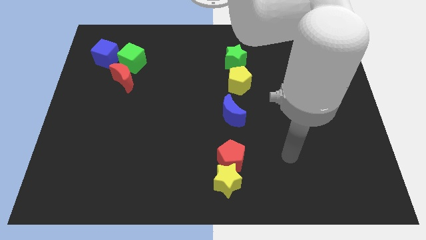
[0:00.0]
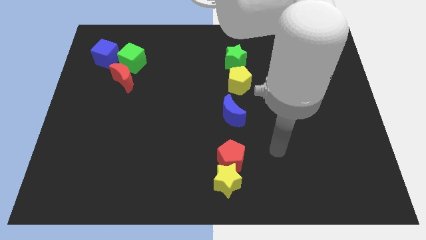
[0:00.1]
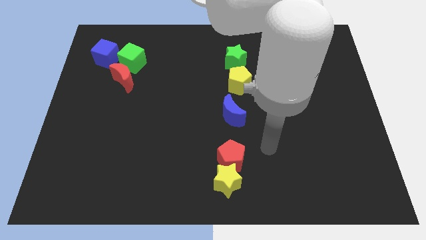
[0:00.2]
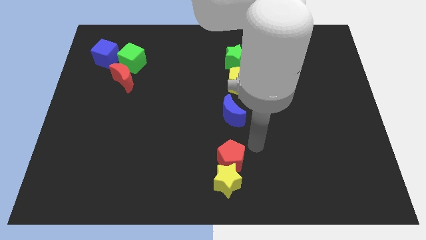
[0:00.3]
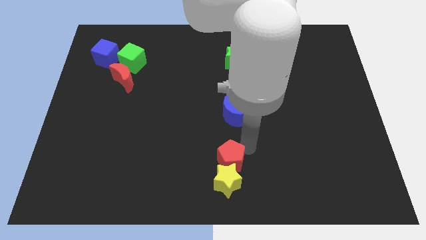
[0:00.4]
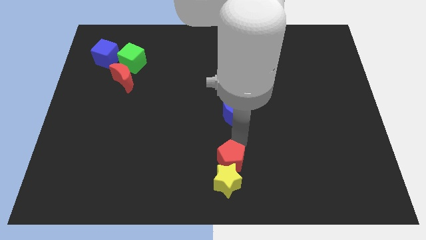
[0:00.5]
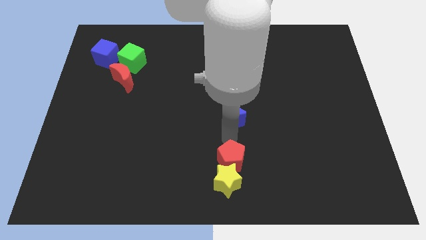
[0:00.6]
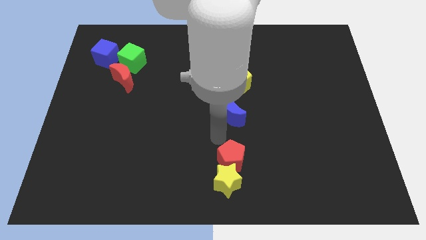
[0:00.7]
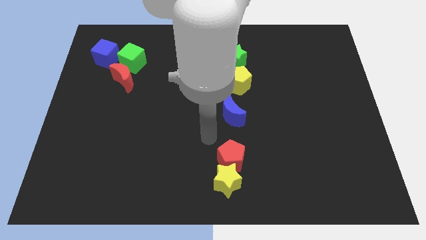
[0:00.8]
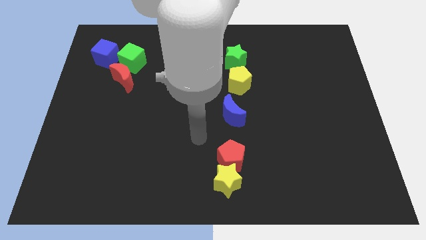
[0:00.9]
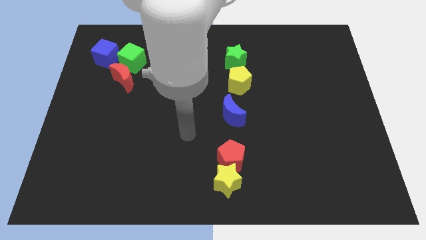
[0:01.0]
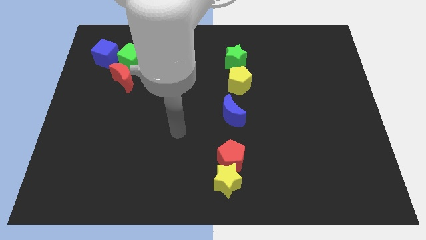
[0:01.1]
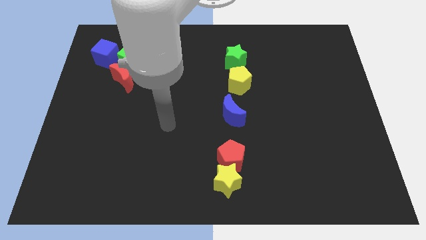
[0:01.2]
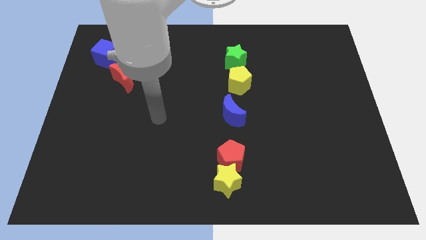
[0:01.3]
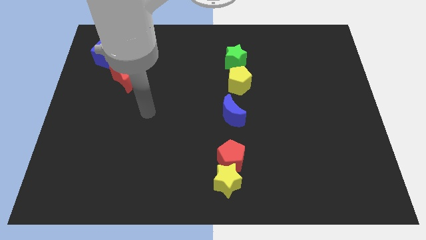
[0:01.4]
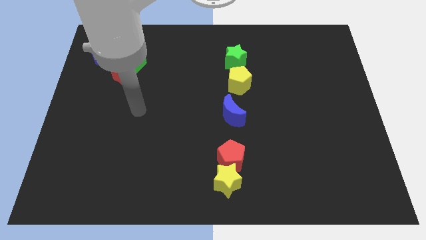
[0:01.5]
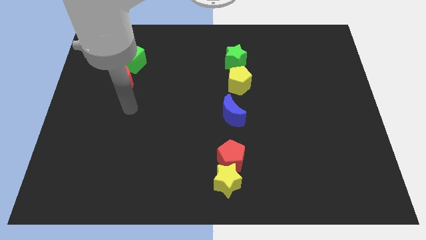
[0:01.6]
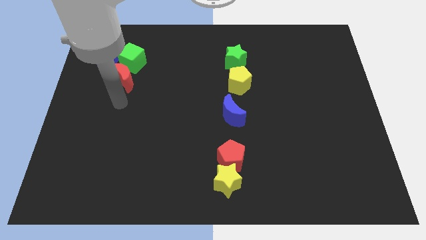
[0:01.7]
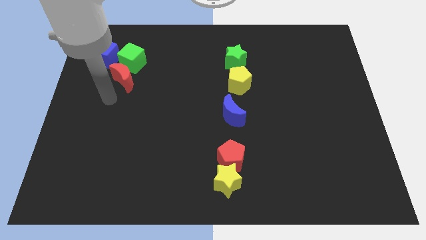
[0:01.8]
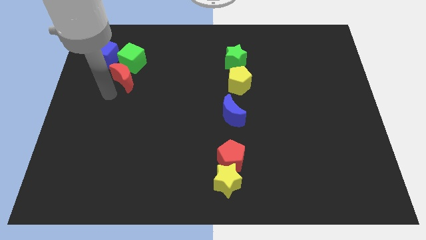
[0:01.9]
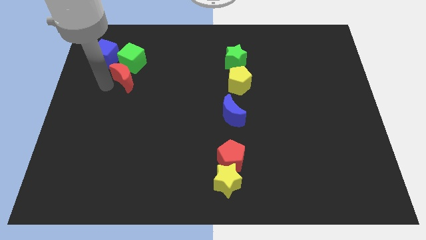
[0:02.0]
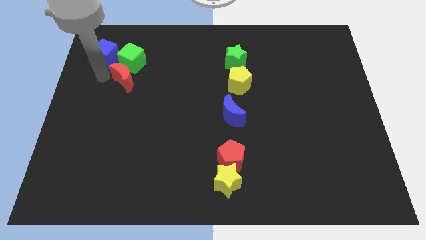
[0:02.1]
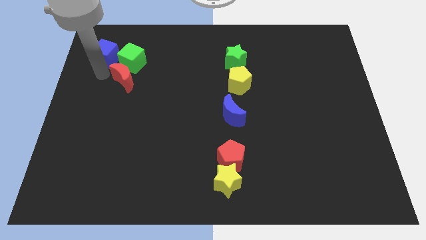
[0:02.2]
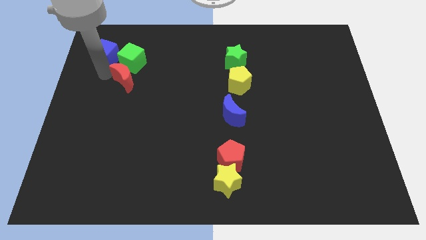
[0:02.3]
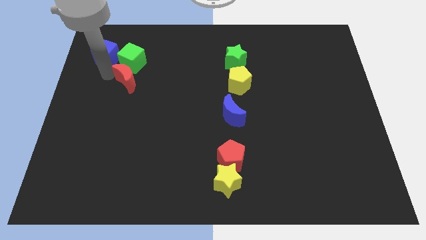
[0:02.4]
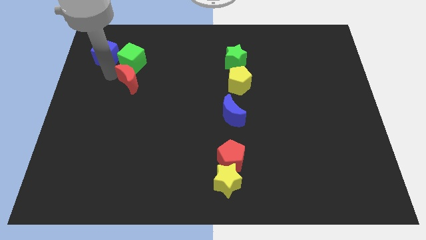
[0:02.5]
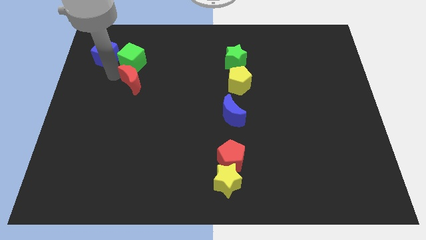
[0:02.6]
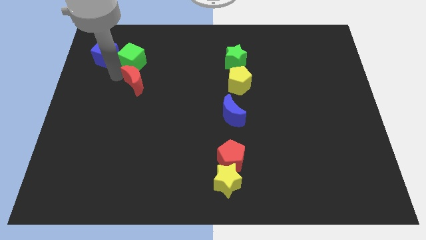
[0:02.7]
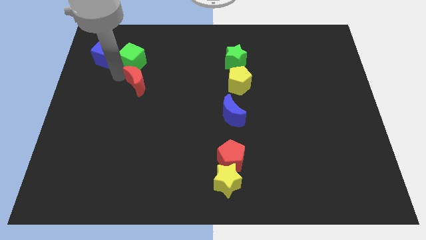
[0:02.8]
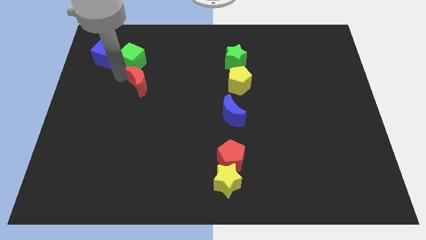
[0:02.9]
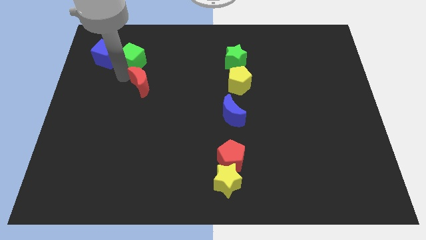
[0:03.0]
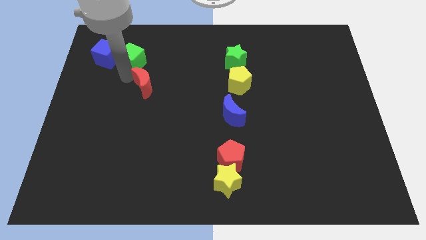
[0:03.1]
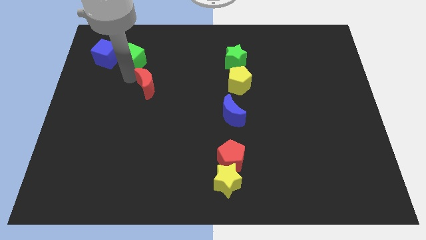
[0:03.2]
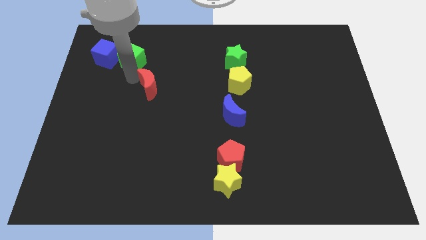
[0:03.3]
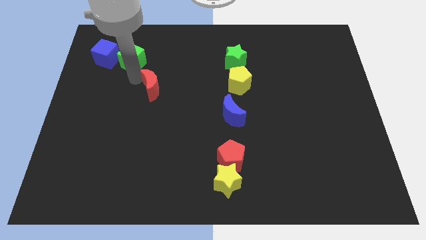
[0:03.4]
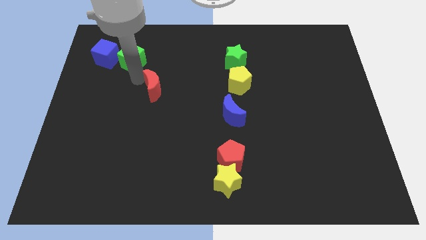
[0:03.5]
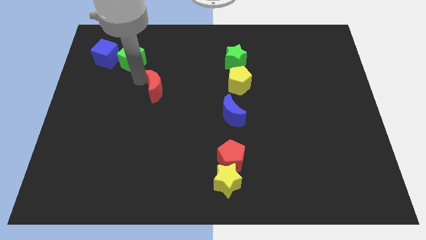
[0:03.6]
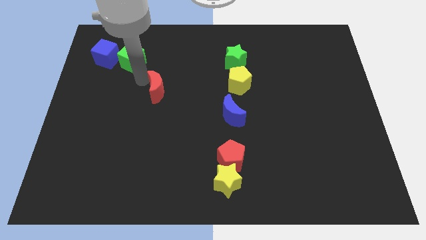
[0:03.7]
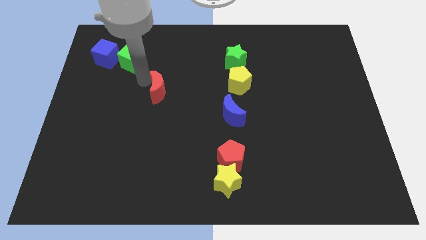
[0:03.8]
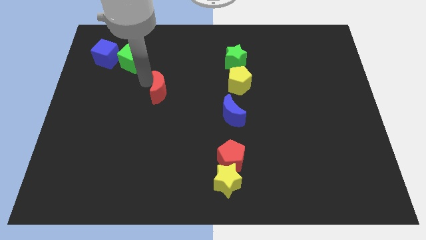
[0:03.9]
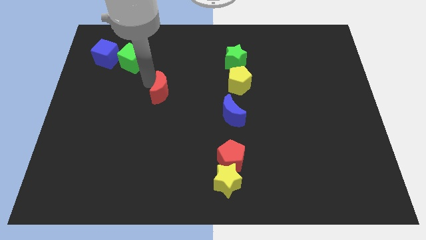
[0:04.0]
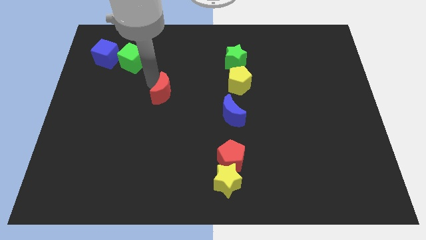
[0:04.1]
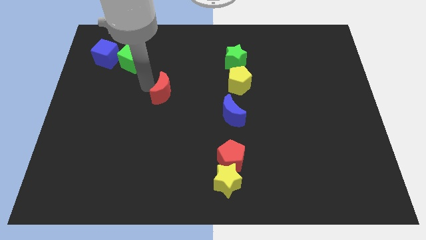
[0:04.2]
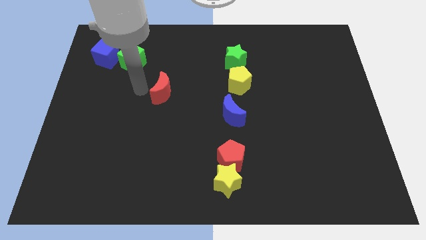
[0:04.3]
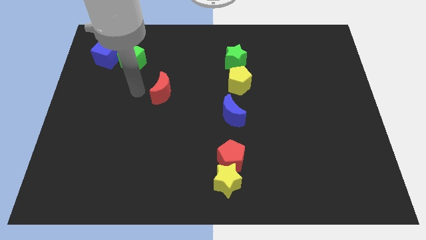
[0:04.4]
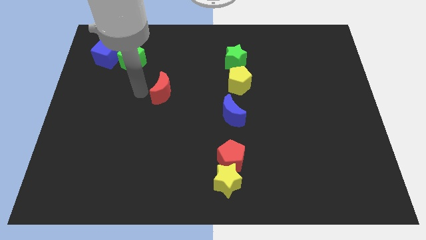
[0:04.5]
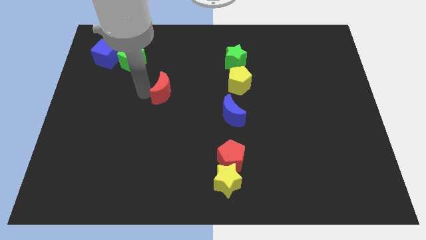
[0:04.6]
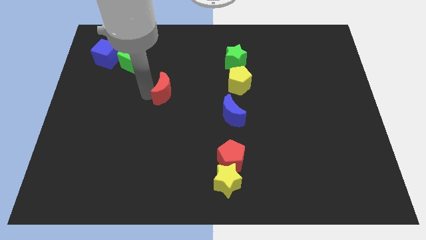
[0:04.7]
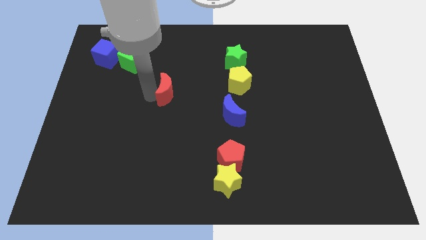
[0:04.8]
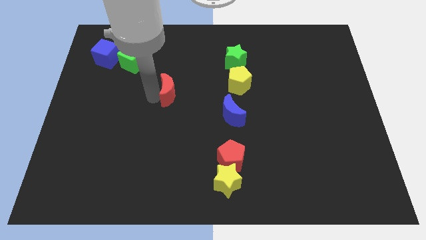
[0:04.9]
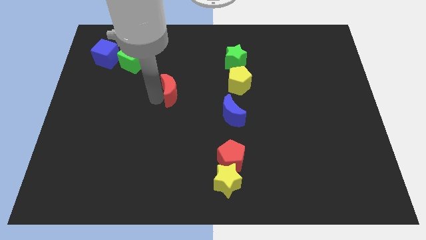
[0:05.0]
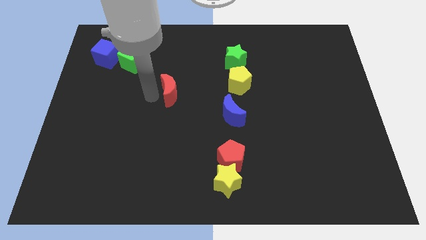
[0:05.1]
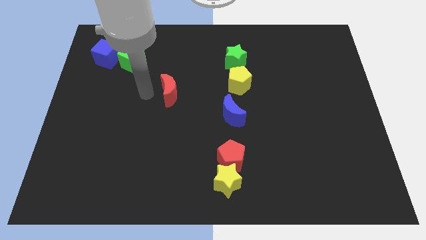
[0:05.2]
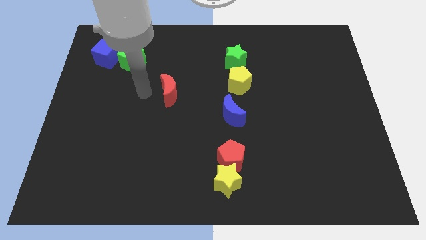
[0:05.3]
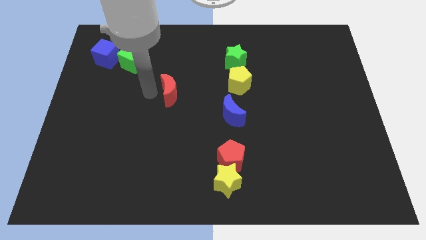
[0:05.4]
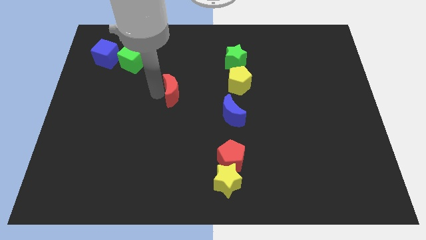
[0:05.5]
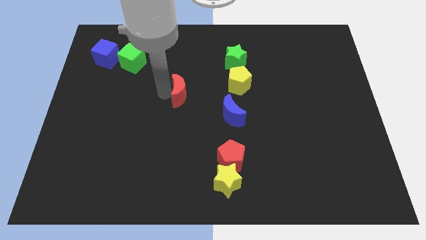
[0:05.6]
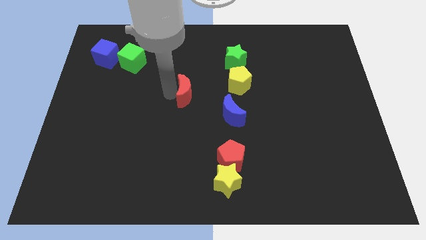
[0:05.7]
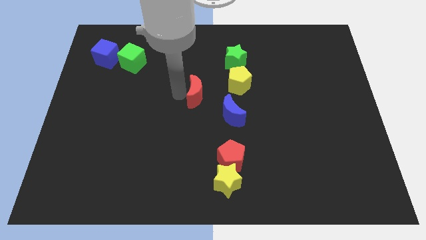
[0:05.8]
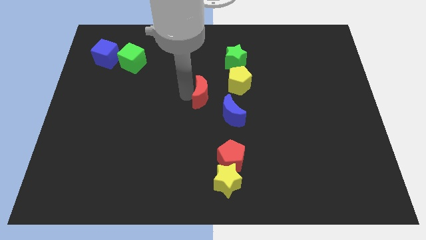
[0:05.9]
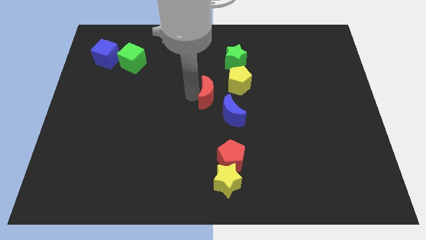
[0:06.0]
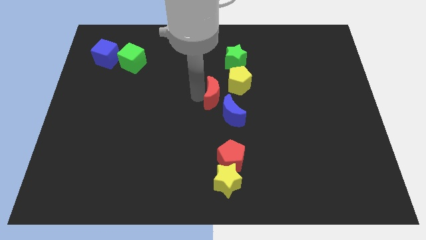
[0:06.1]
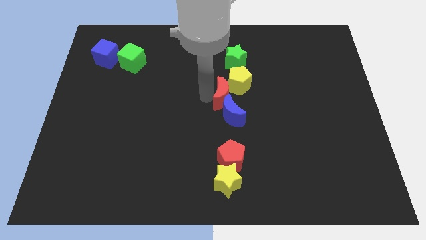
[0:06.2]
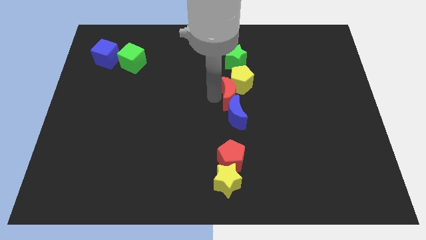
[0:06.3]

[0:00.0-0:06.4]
move the red moon to the top right of the blue moon

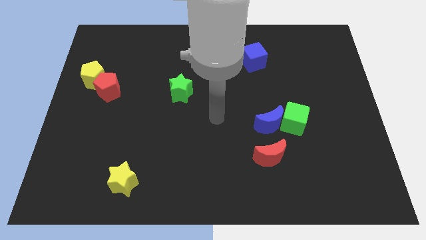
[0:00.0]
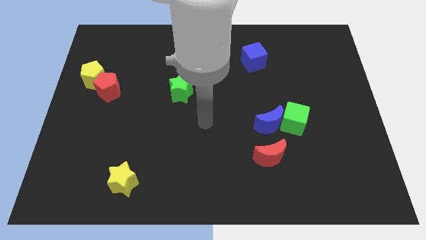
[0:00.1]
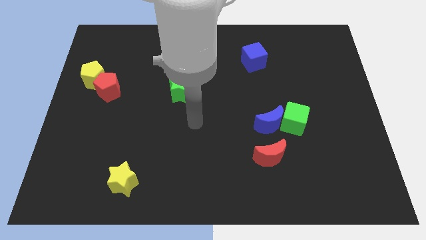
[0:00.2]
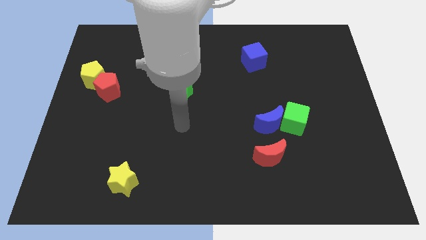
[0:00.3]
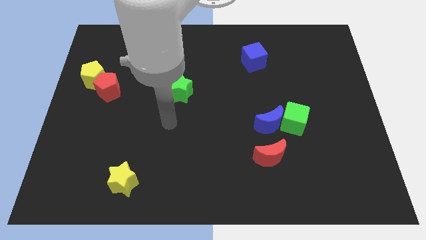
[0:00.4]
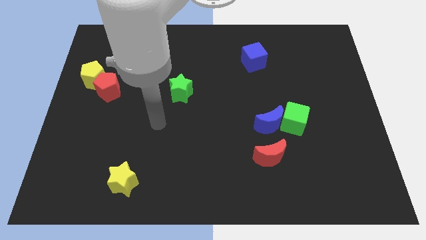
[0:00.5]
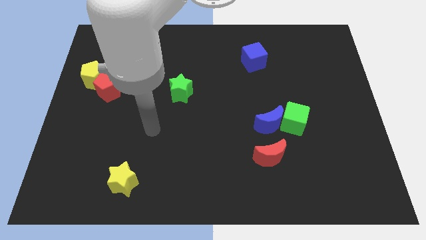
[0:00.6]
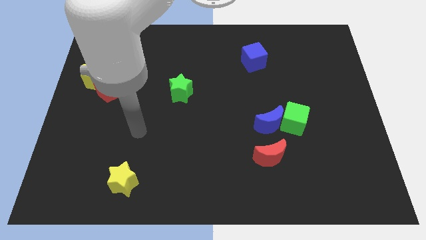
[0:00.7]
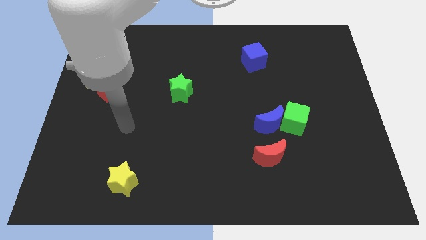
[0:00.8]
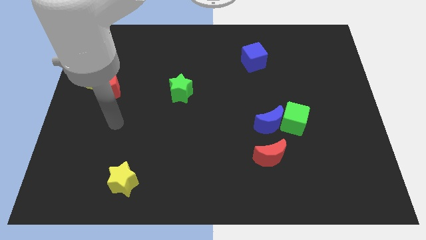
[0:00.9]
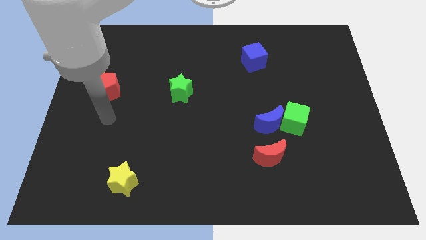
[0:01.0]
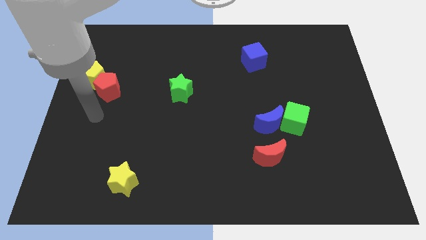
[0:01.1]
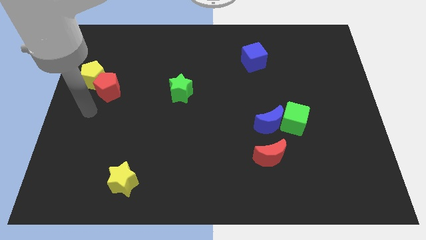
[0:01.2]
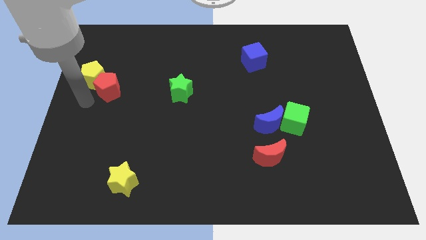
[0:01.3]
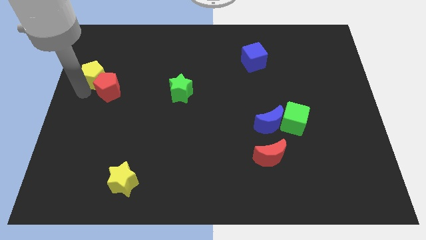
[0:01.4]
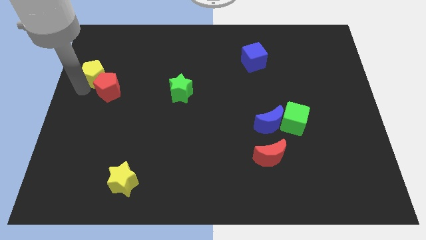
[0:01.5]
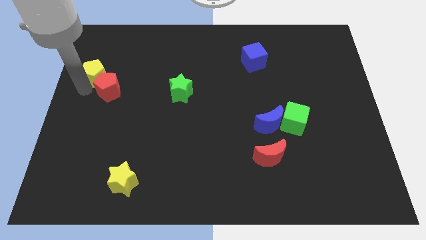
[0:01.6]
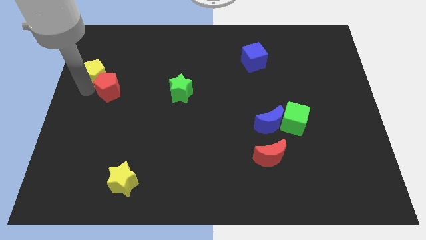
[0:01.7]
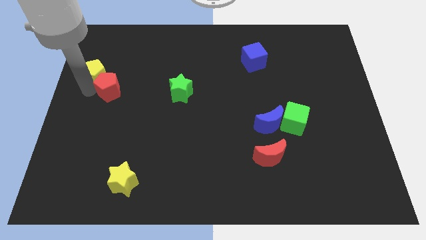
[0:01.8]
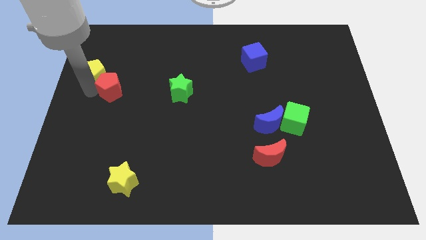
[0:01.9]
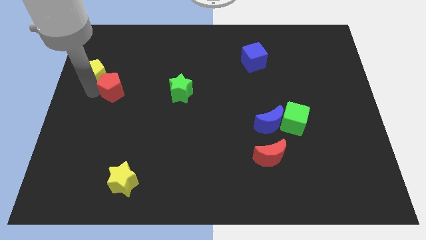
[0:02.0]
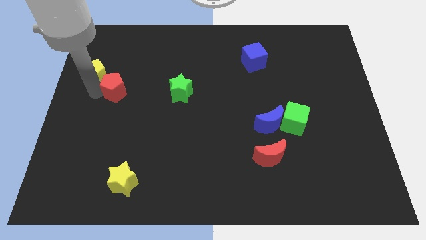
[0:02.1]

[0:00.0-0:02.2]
put the red pentagon left of the green star
